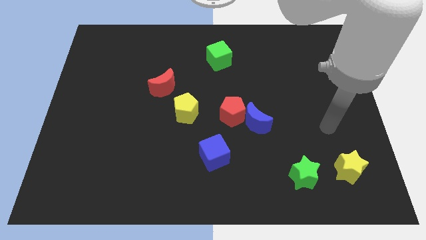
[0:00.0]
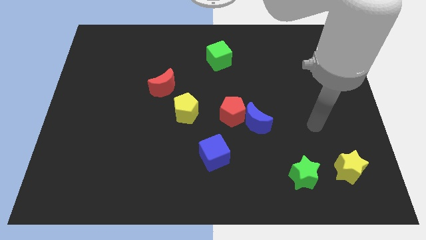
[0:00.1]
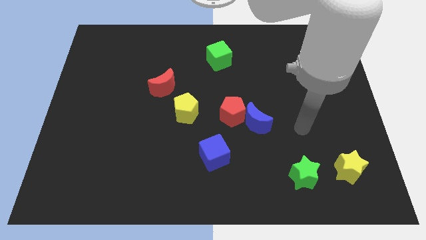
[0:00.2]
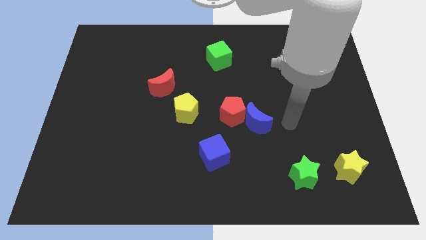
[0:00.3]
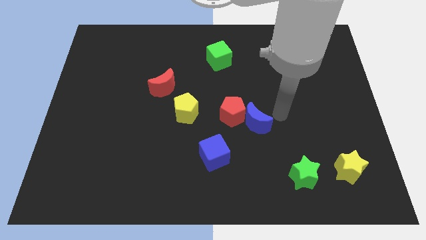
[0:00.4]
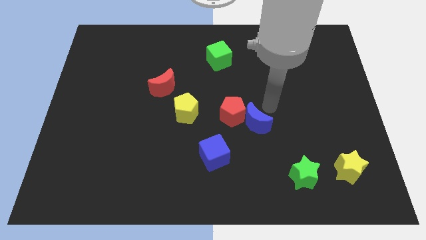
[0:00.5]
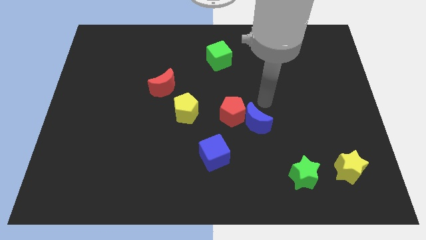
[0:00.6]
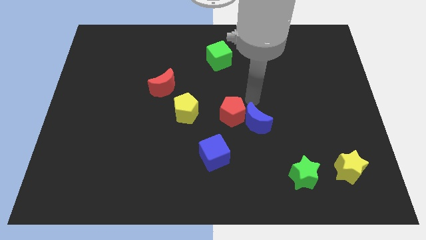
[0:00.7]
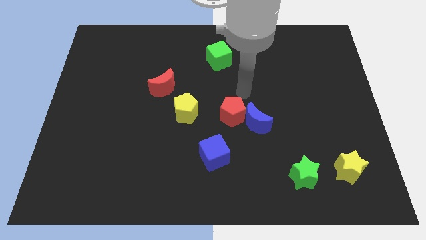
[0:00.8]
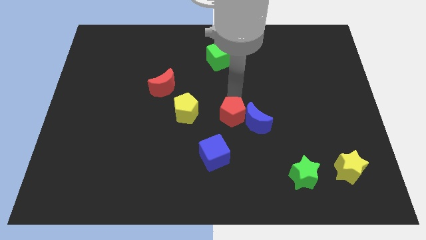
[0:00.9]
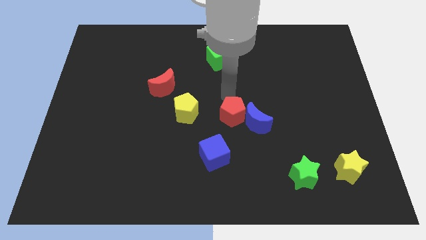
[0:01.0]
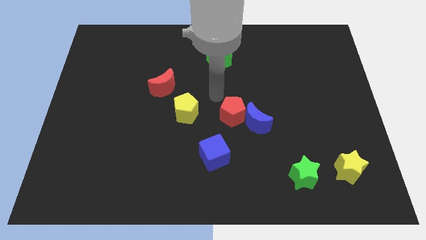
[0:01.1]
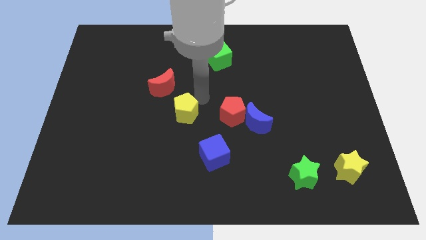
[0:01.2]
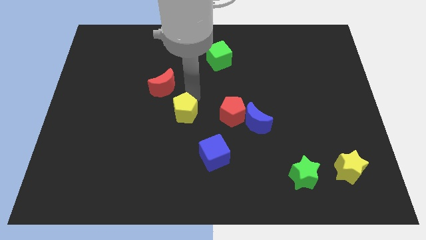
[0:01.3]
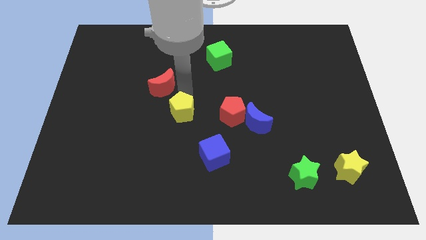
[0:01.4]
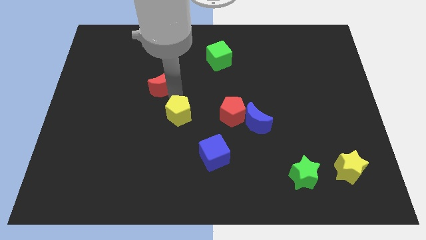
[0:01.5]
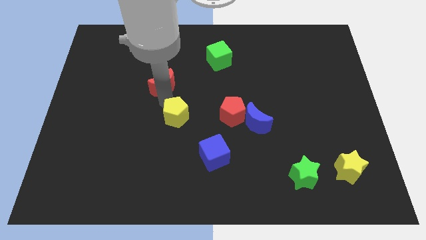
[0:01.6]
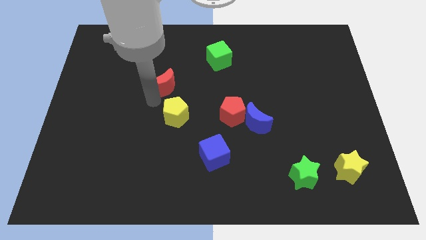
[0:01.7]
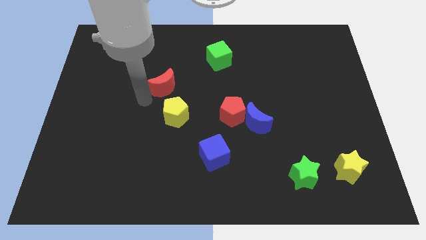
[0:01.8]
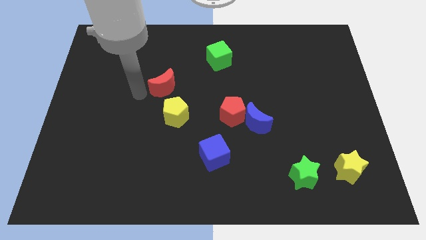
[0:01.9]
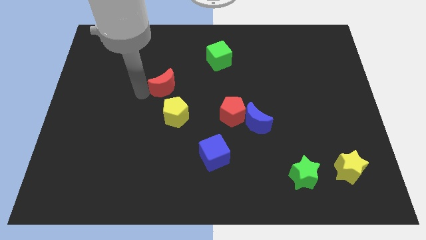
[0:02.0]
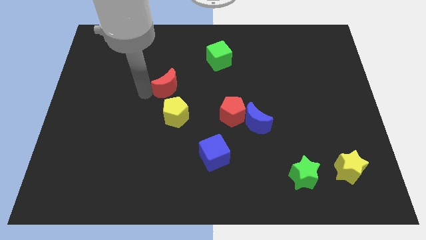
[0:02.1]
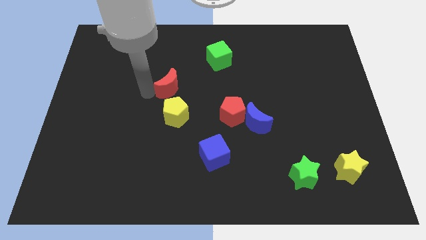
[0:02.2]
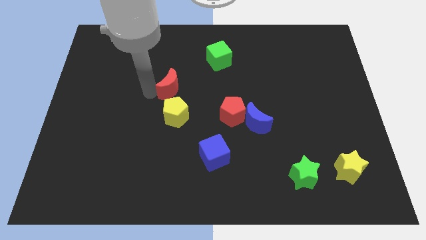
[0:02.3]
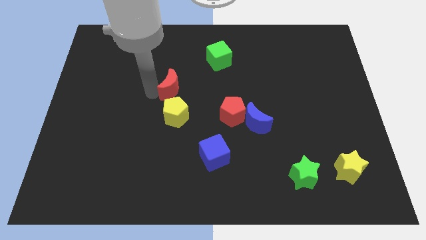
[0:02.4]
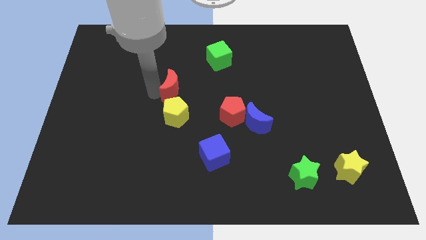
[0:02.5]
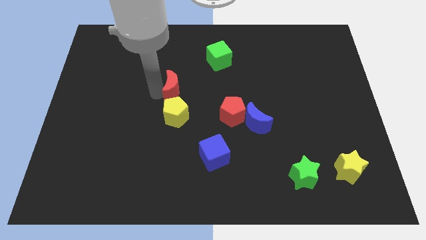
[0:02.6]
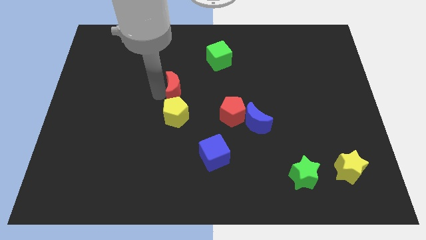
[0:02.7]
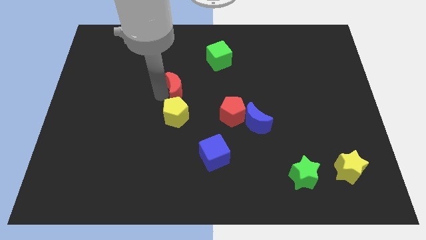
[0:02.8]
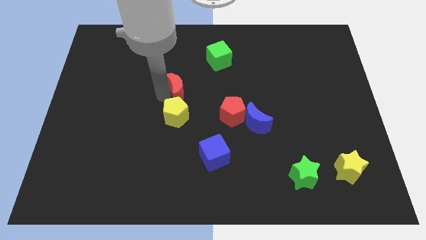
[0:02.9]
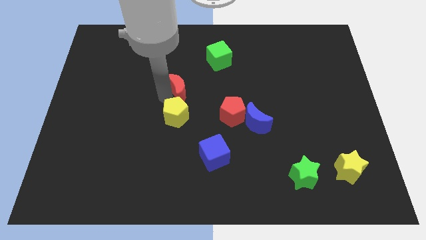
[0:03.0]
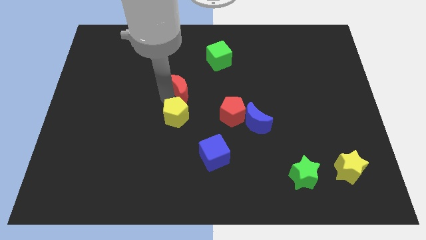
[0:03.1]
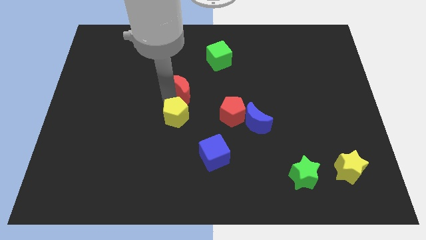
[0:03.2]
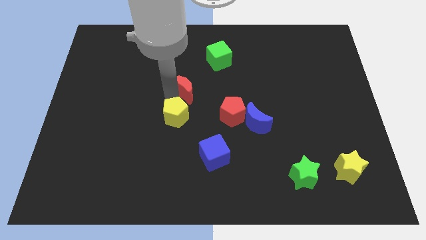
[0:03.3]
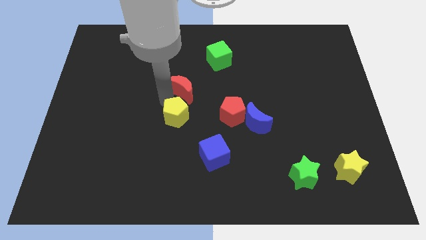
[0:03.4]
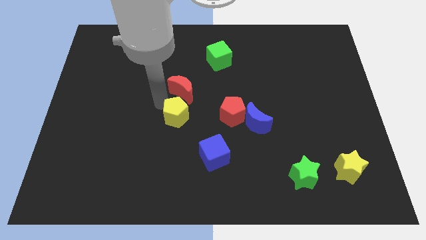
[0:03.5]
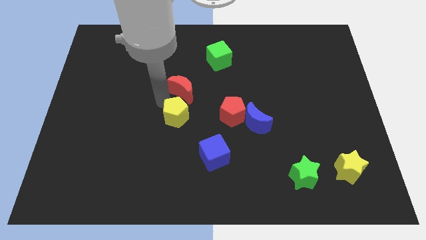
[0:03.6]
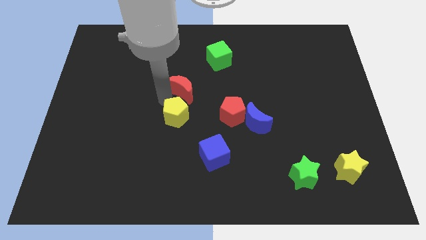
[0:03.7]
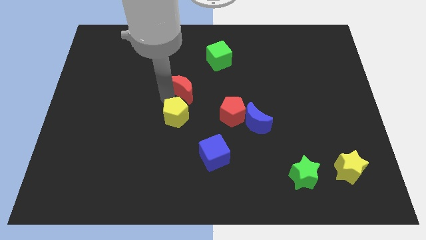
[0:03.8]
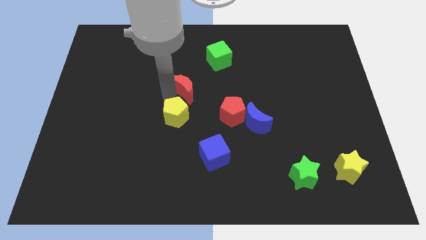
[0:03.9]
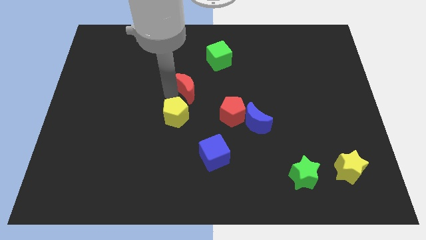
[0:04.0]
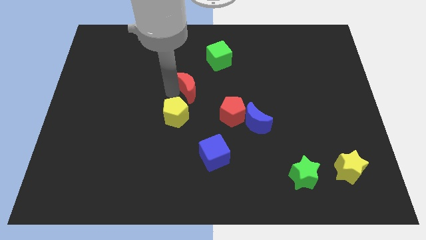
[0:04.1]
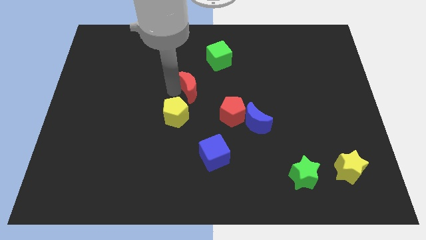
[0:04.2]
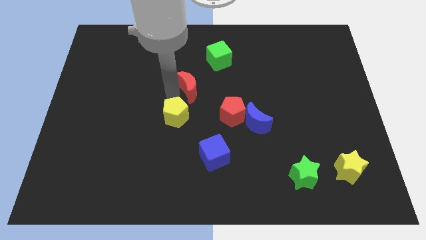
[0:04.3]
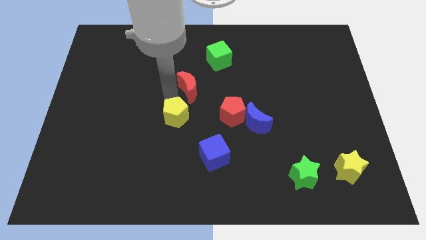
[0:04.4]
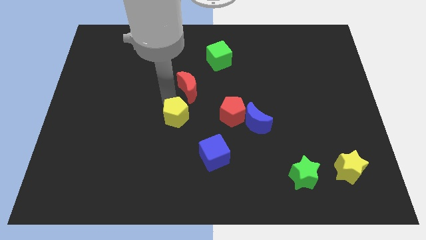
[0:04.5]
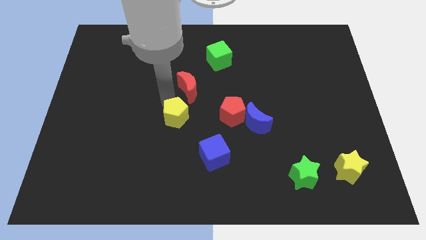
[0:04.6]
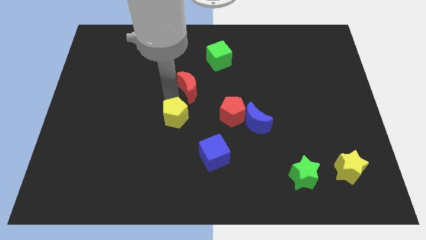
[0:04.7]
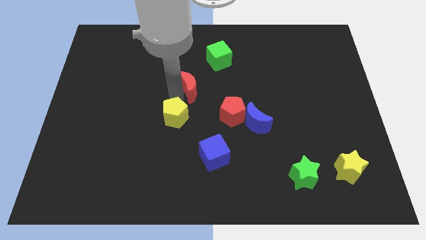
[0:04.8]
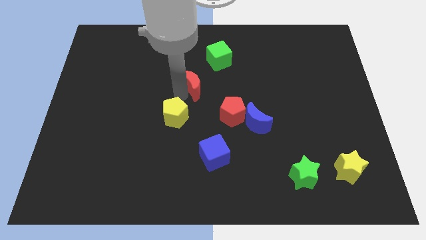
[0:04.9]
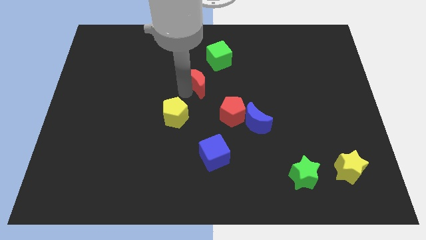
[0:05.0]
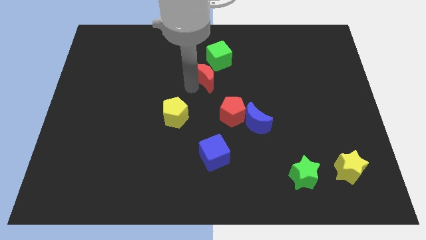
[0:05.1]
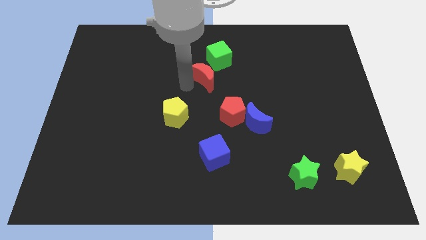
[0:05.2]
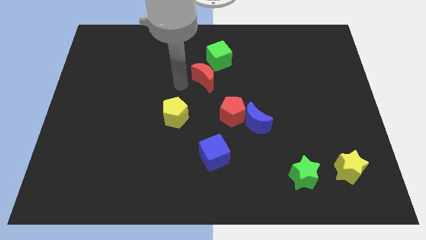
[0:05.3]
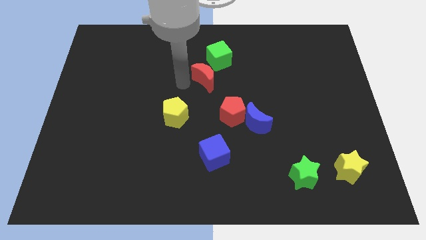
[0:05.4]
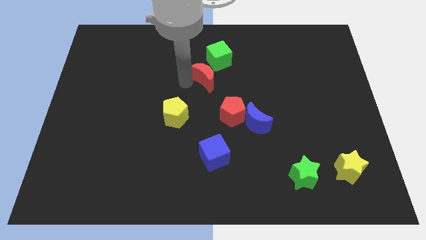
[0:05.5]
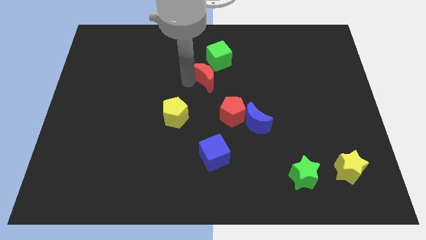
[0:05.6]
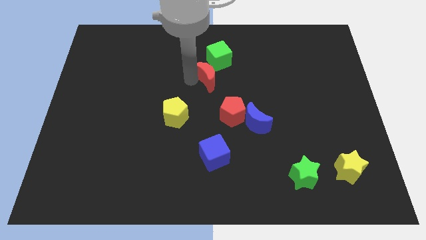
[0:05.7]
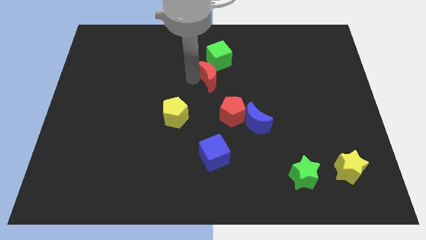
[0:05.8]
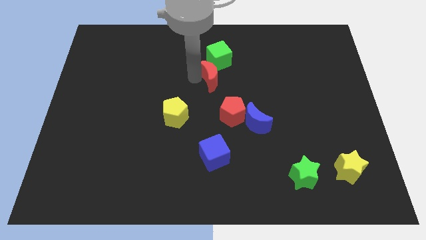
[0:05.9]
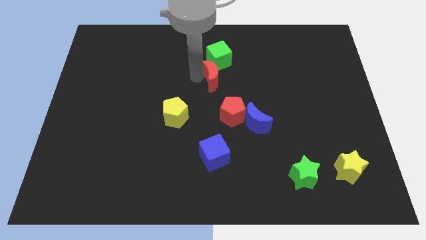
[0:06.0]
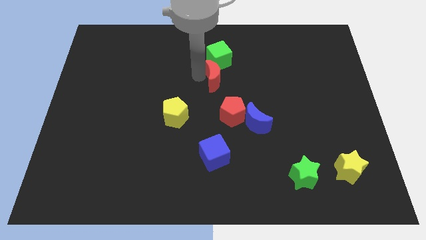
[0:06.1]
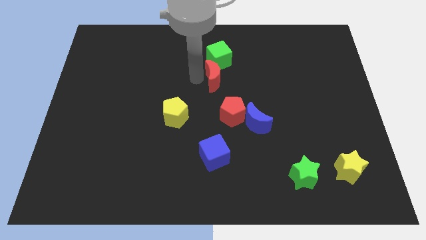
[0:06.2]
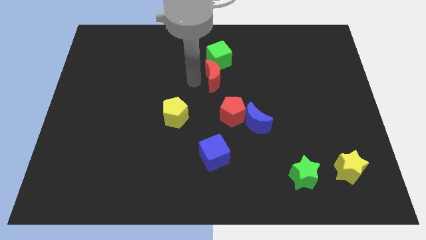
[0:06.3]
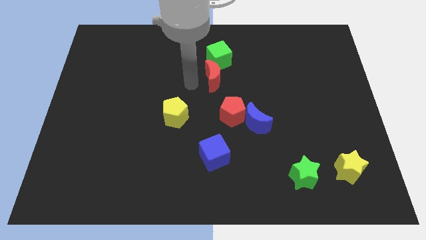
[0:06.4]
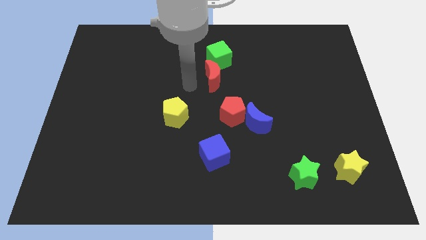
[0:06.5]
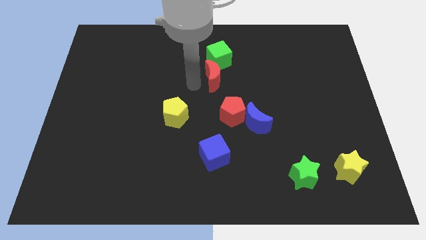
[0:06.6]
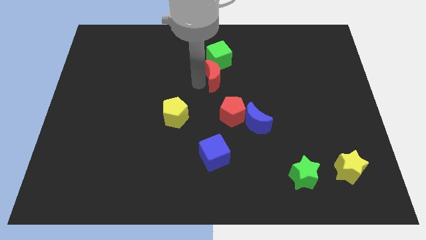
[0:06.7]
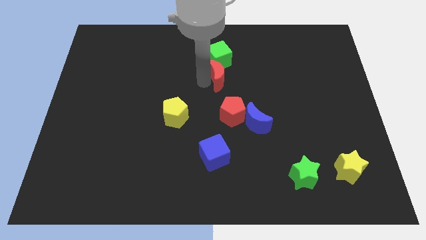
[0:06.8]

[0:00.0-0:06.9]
put the red moon to the bottom right side of the green cube

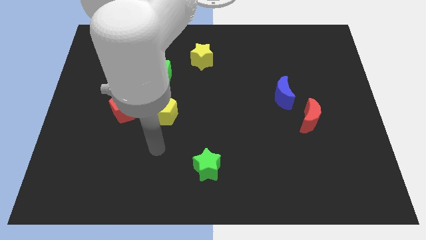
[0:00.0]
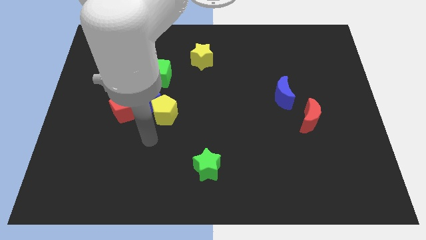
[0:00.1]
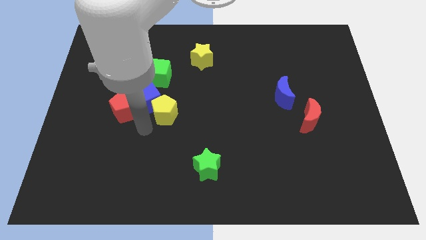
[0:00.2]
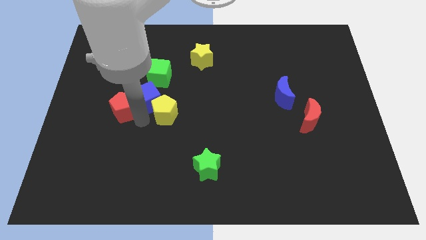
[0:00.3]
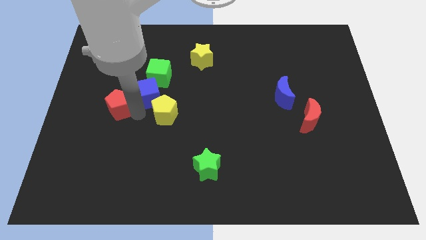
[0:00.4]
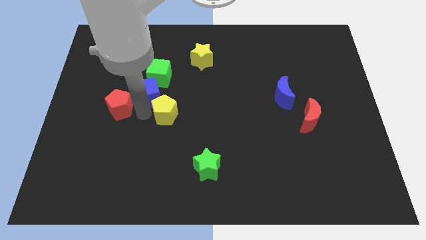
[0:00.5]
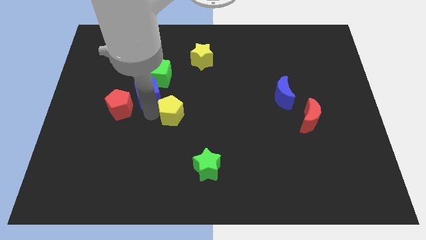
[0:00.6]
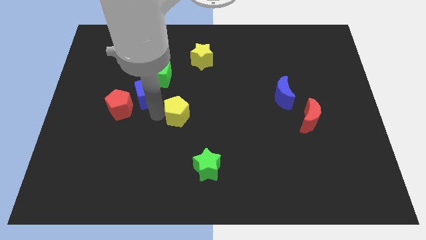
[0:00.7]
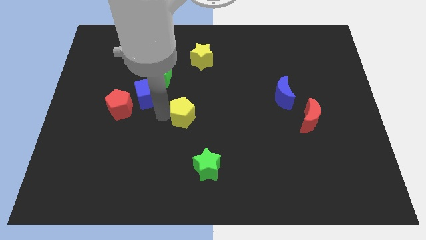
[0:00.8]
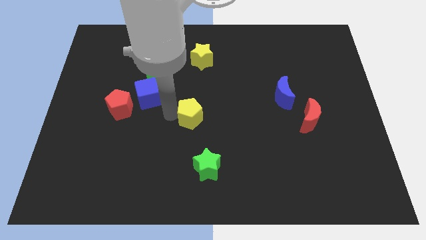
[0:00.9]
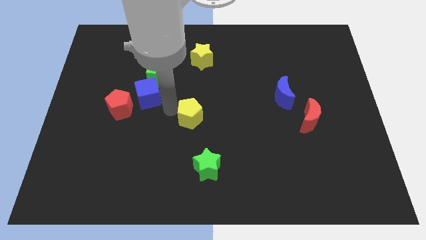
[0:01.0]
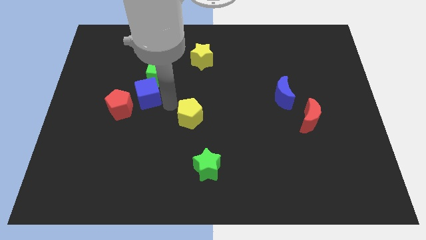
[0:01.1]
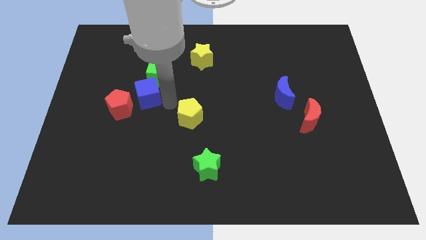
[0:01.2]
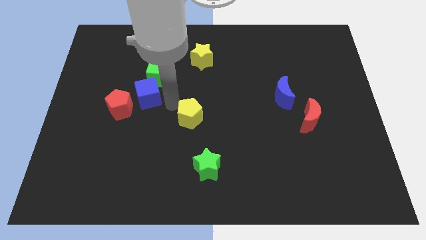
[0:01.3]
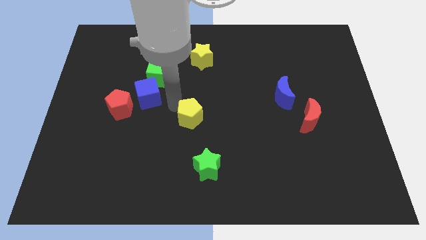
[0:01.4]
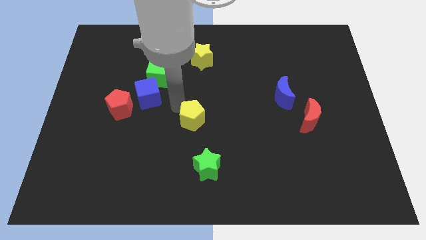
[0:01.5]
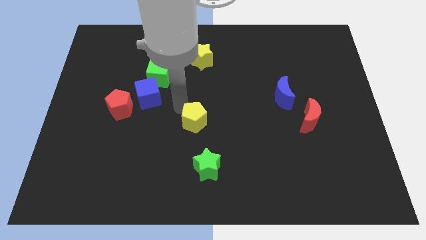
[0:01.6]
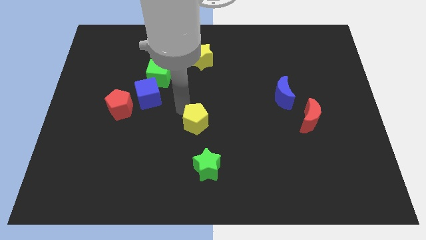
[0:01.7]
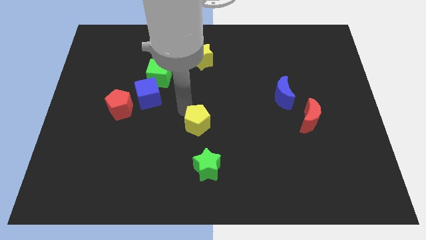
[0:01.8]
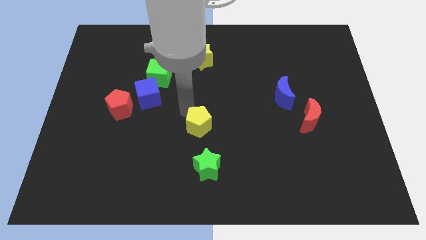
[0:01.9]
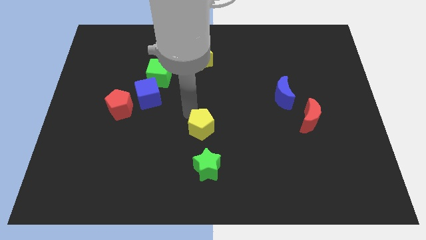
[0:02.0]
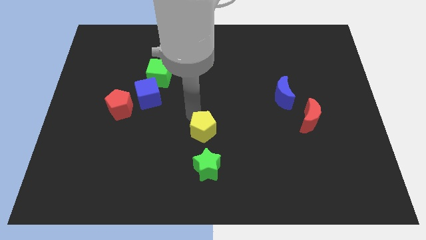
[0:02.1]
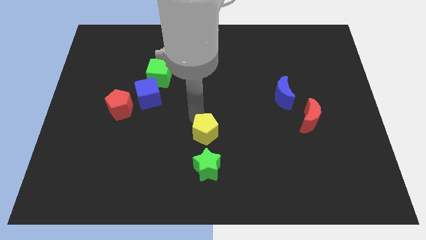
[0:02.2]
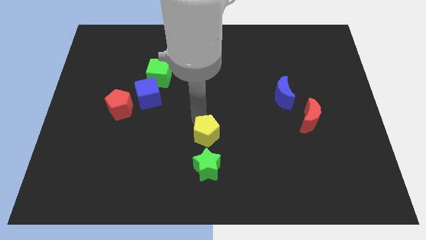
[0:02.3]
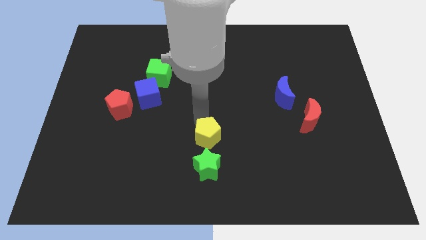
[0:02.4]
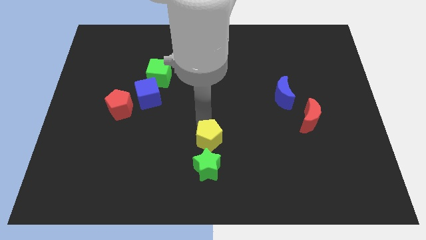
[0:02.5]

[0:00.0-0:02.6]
put the yellow pentagon to the top right of the green star
